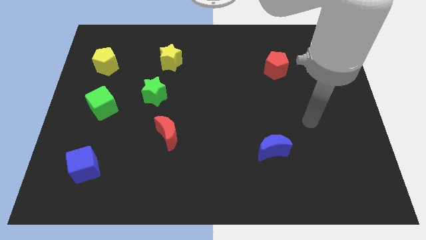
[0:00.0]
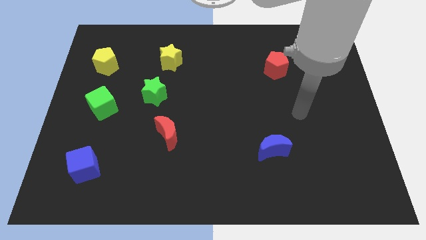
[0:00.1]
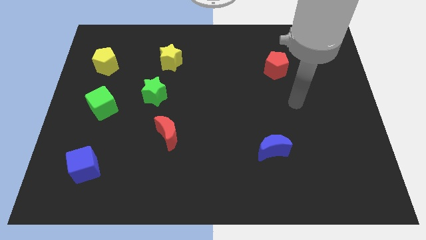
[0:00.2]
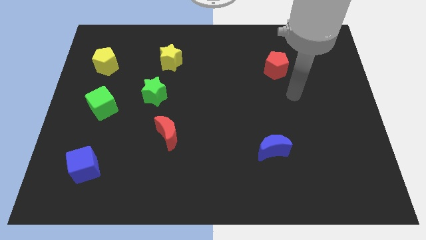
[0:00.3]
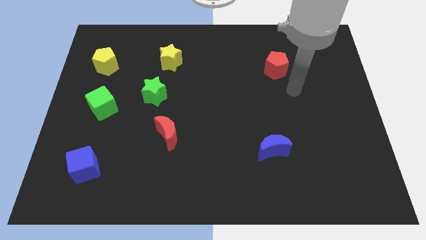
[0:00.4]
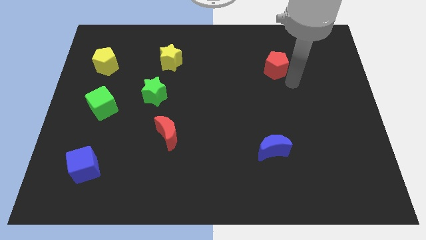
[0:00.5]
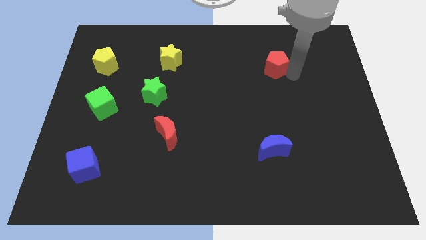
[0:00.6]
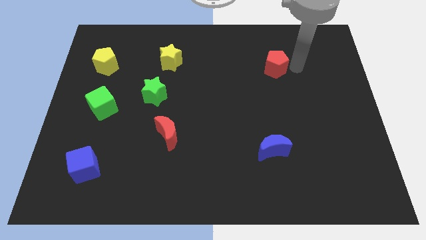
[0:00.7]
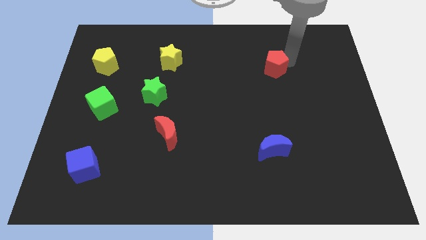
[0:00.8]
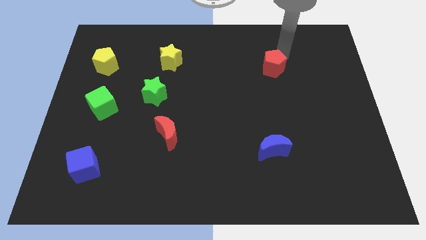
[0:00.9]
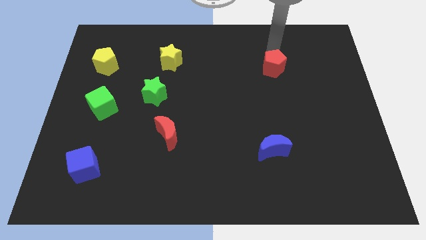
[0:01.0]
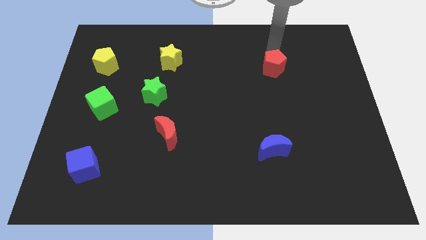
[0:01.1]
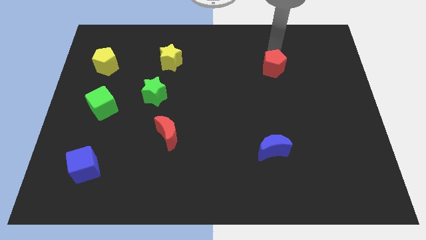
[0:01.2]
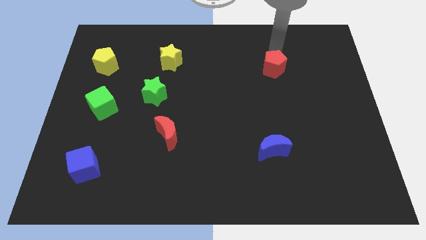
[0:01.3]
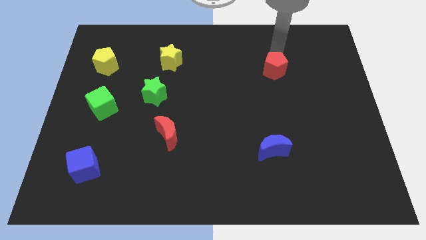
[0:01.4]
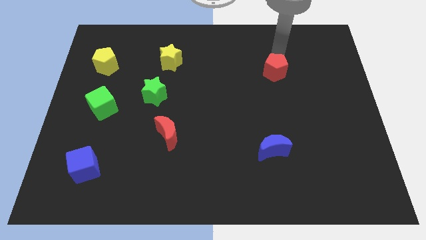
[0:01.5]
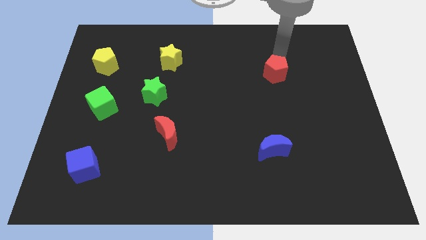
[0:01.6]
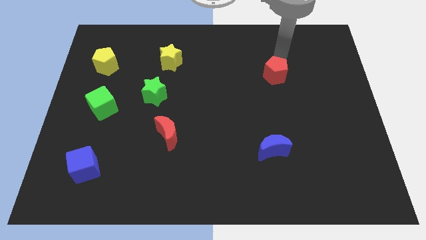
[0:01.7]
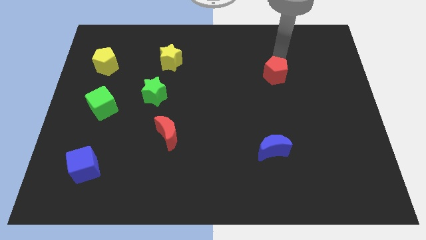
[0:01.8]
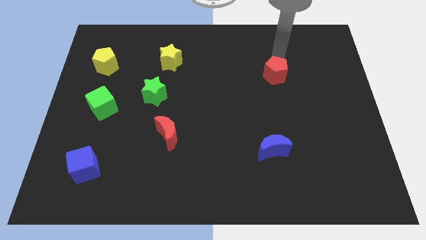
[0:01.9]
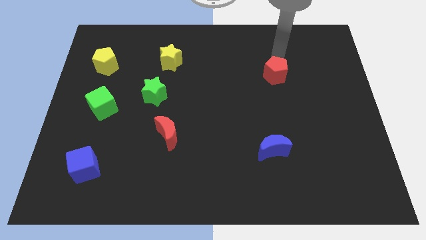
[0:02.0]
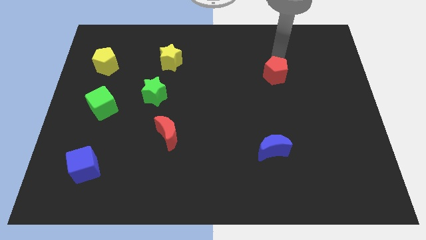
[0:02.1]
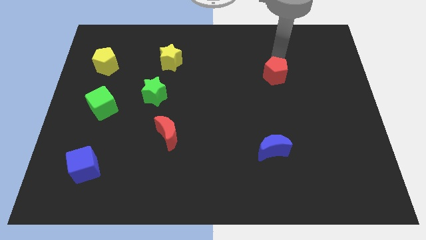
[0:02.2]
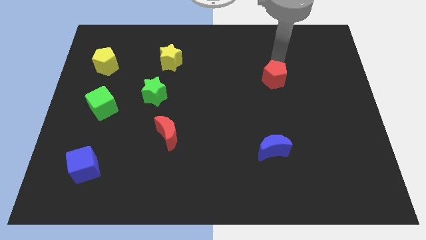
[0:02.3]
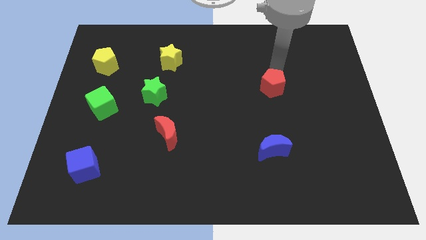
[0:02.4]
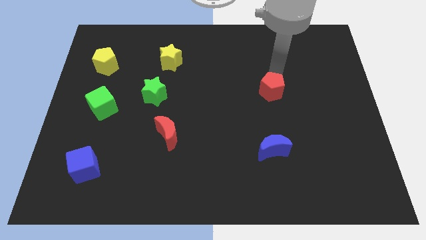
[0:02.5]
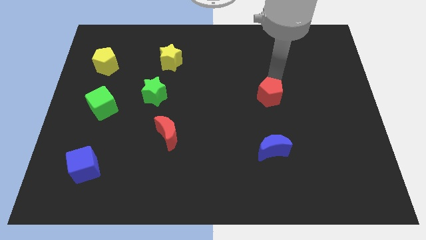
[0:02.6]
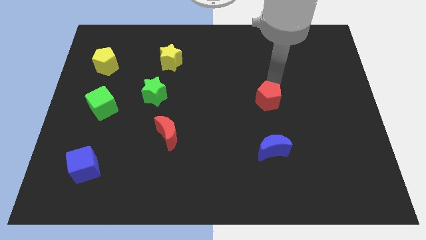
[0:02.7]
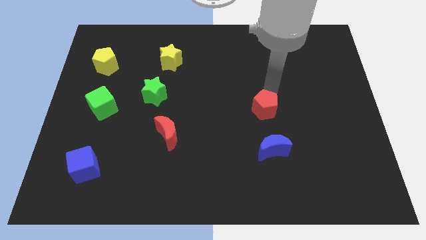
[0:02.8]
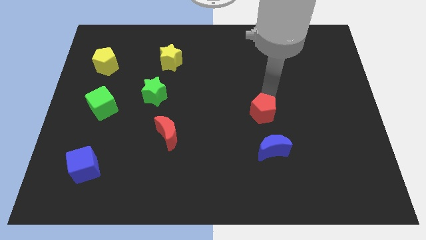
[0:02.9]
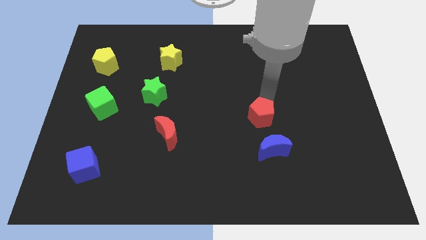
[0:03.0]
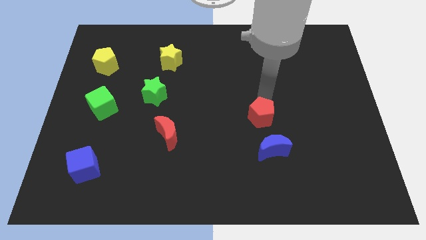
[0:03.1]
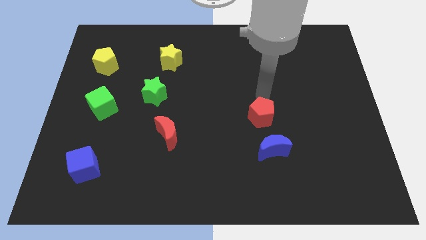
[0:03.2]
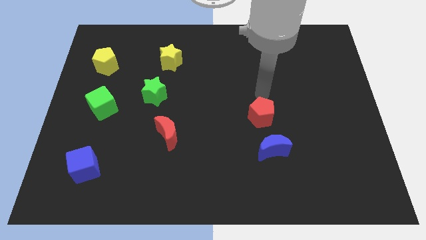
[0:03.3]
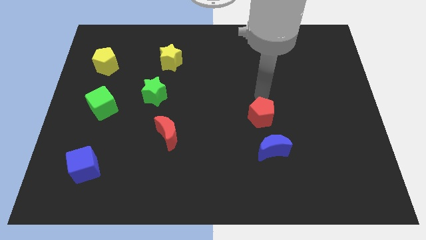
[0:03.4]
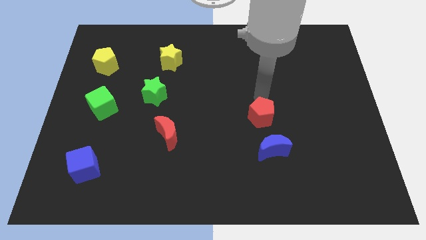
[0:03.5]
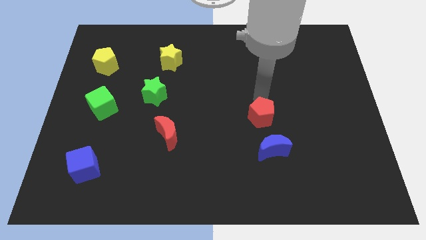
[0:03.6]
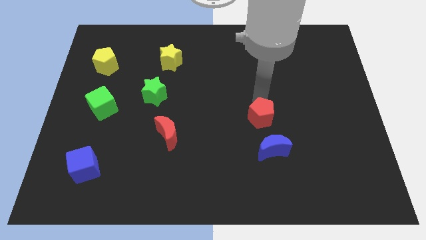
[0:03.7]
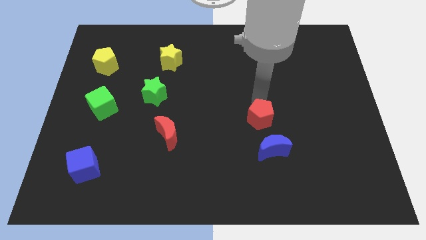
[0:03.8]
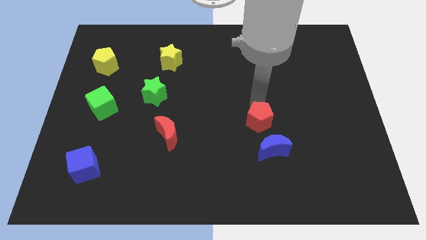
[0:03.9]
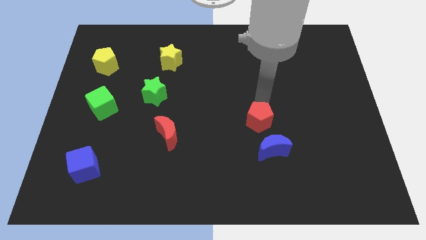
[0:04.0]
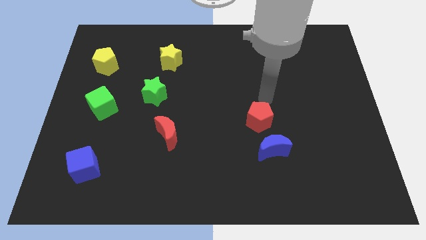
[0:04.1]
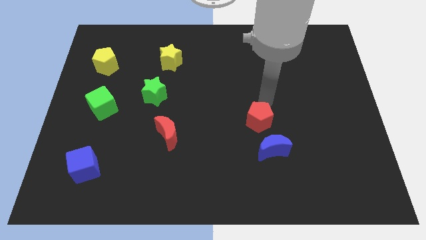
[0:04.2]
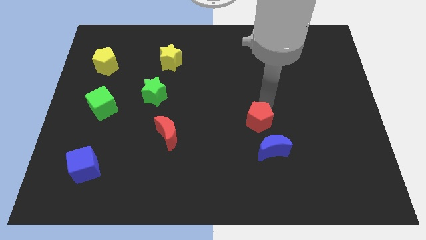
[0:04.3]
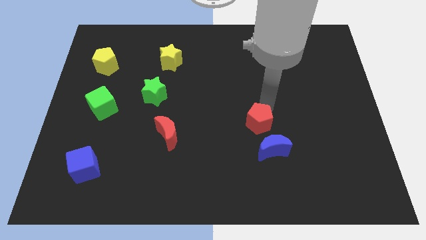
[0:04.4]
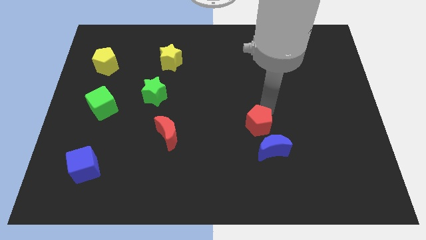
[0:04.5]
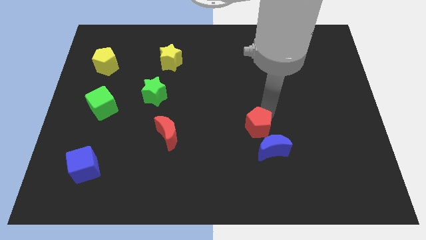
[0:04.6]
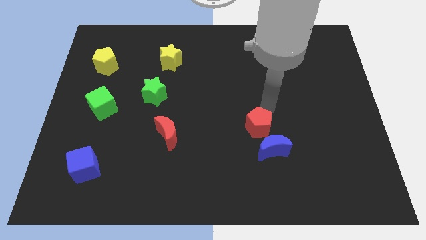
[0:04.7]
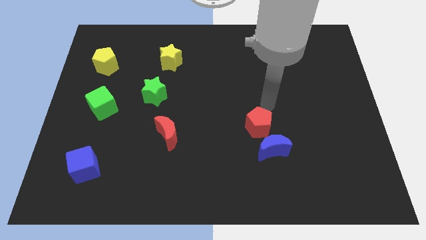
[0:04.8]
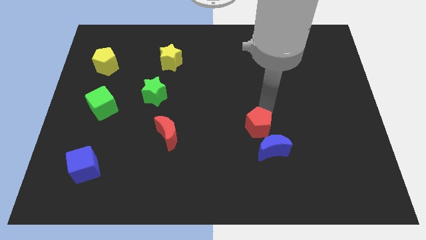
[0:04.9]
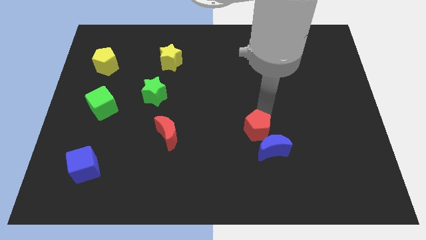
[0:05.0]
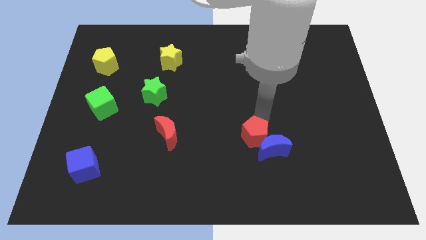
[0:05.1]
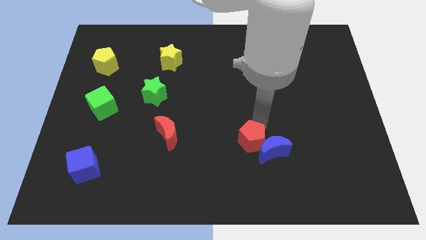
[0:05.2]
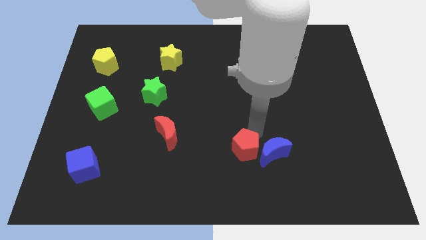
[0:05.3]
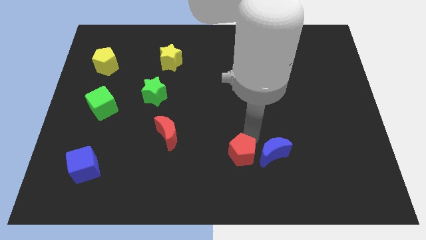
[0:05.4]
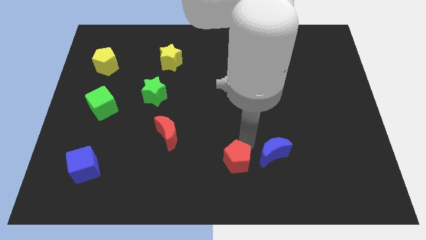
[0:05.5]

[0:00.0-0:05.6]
move the red pentagon to the bottom
